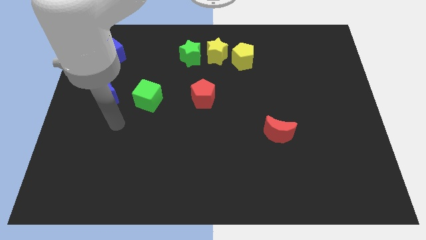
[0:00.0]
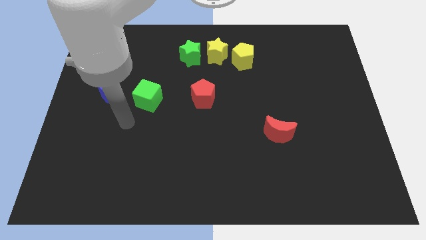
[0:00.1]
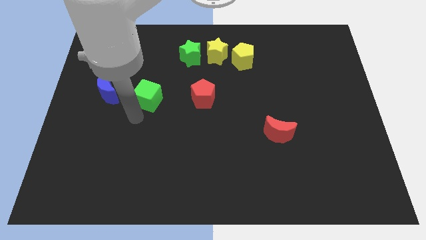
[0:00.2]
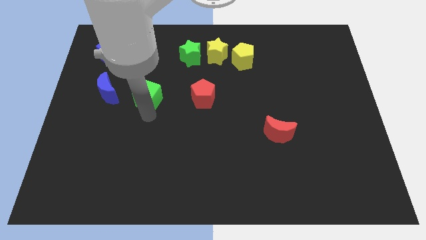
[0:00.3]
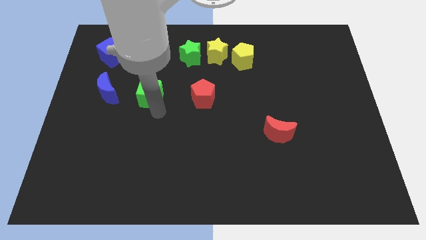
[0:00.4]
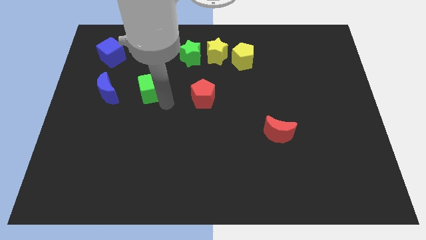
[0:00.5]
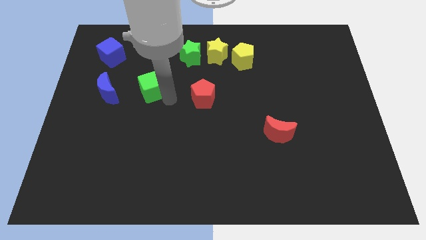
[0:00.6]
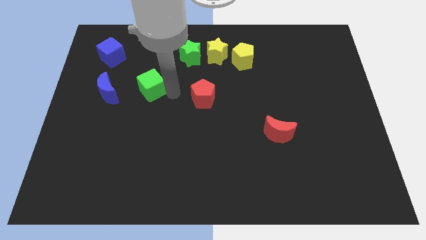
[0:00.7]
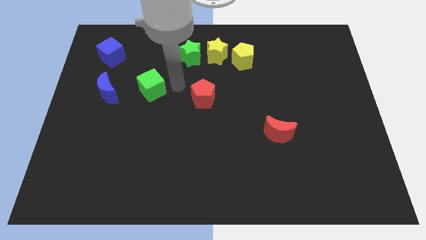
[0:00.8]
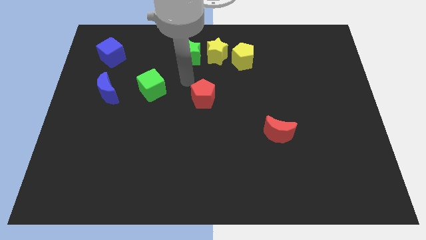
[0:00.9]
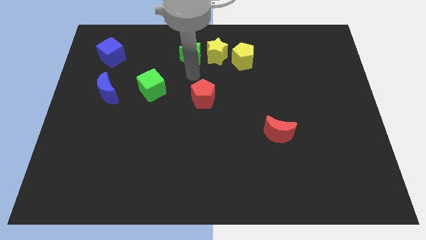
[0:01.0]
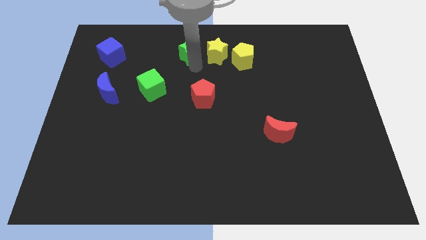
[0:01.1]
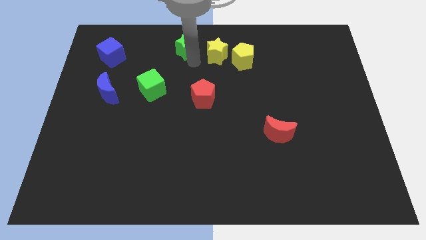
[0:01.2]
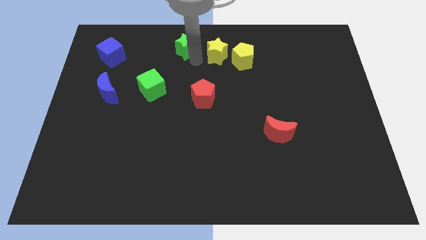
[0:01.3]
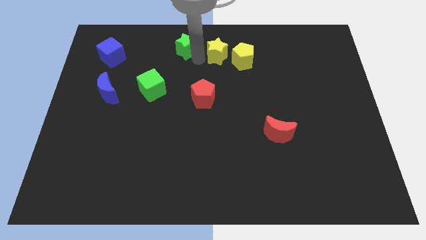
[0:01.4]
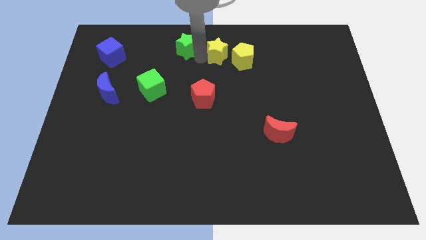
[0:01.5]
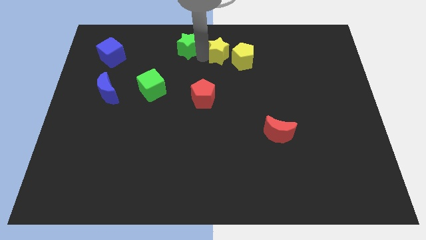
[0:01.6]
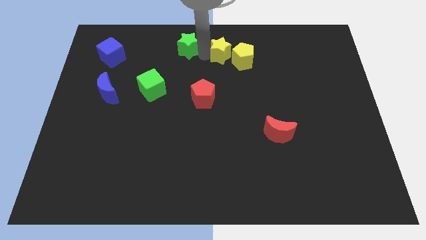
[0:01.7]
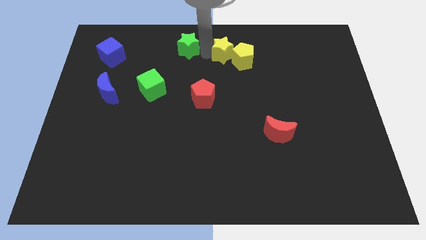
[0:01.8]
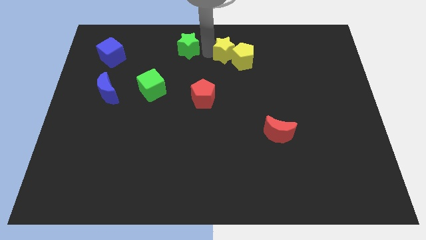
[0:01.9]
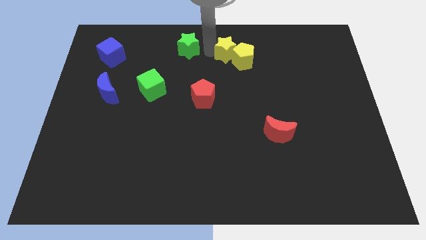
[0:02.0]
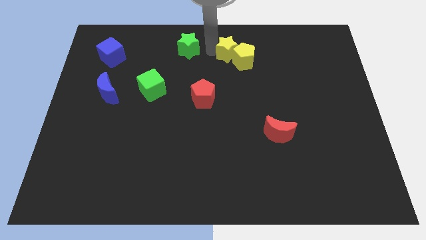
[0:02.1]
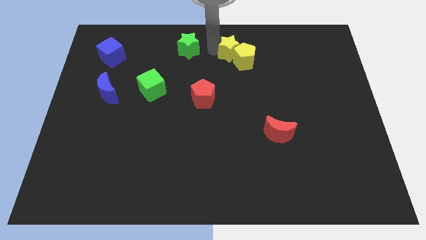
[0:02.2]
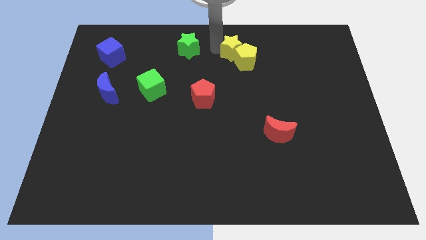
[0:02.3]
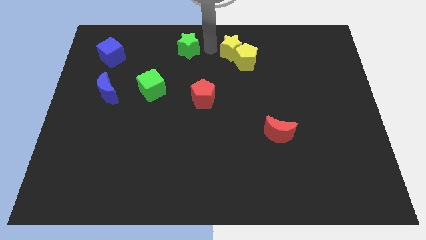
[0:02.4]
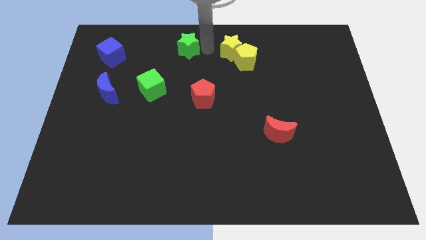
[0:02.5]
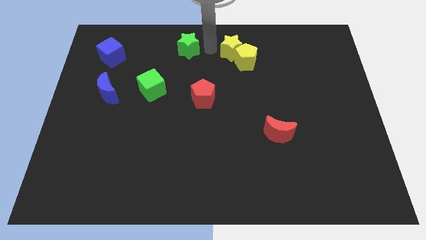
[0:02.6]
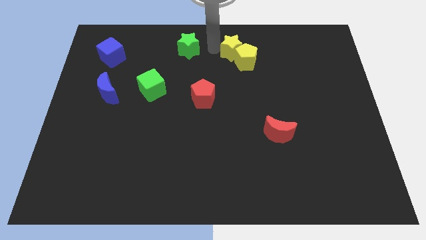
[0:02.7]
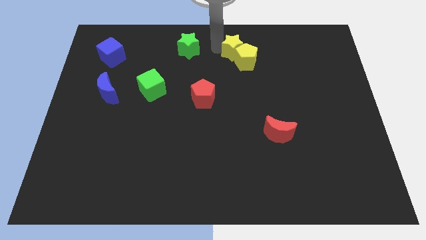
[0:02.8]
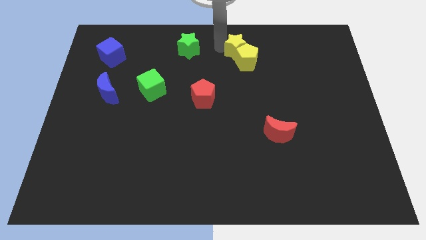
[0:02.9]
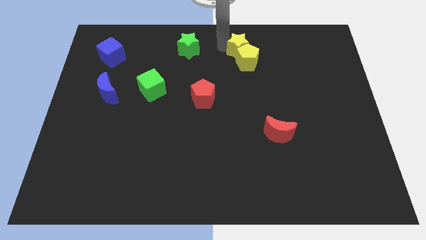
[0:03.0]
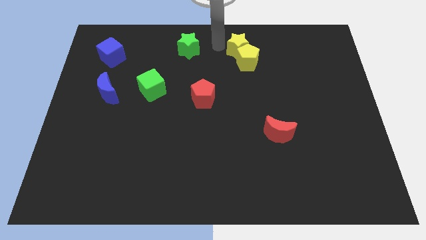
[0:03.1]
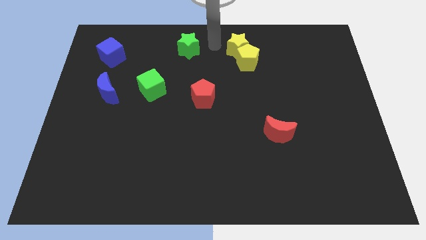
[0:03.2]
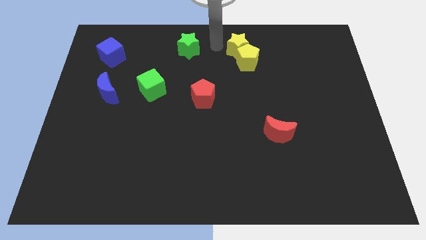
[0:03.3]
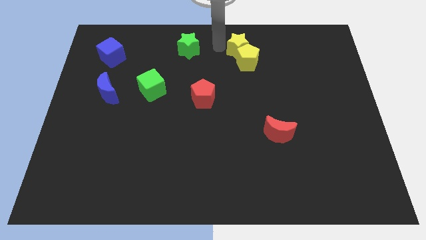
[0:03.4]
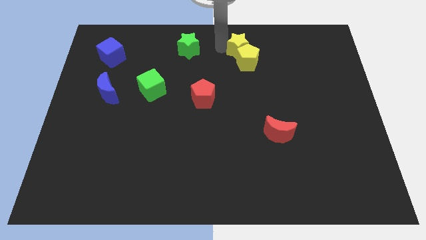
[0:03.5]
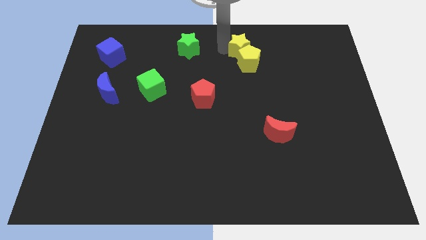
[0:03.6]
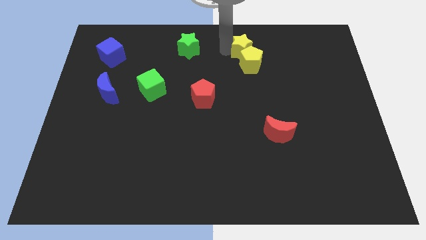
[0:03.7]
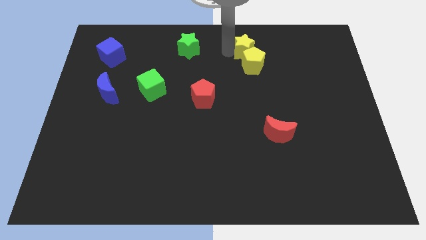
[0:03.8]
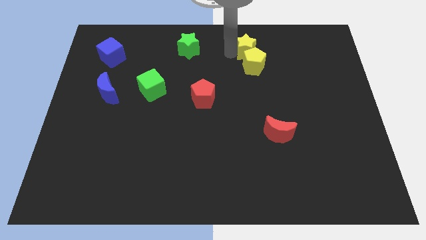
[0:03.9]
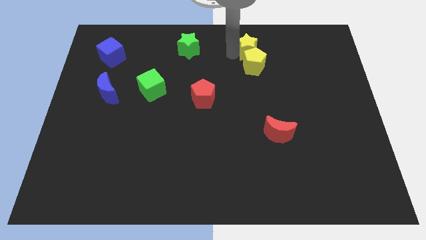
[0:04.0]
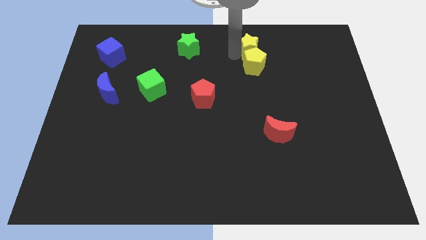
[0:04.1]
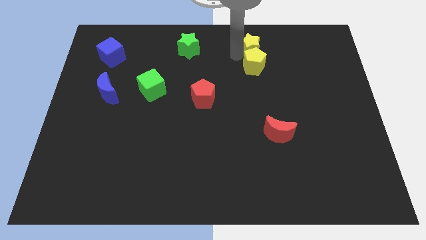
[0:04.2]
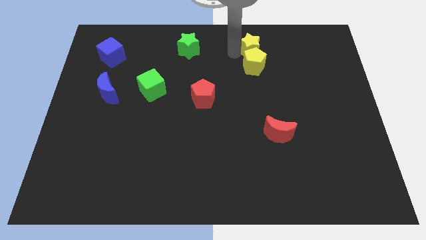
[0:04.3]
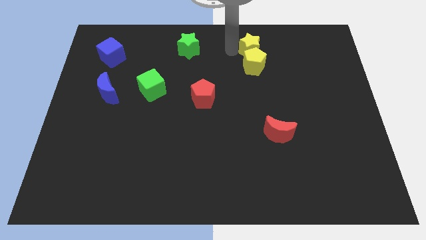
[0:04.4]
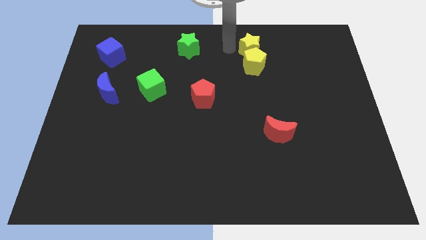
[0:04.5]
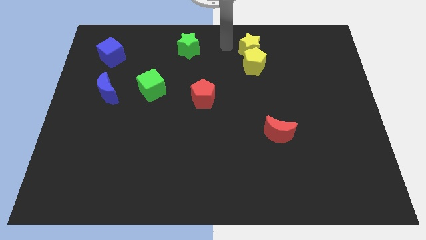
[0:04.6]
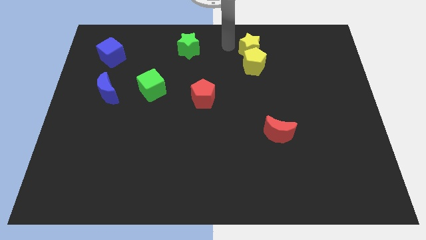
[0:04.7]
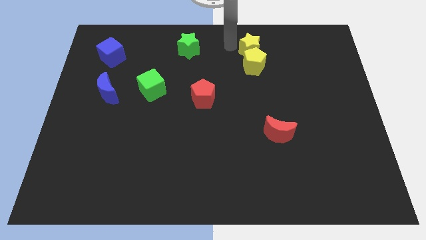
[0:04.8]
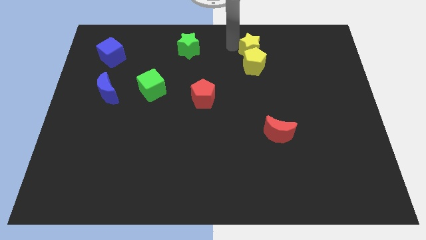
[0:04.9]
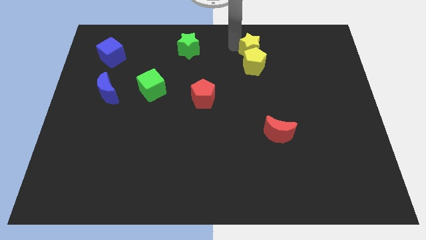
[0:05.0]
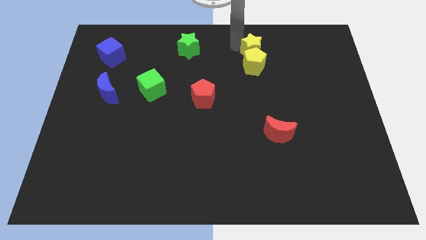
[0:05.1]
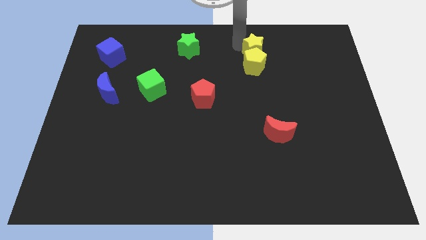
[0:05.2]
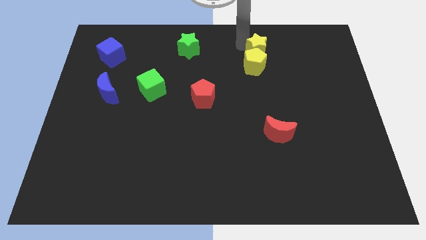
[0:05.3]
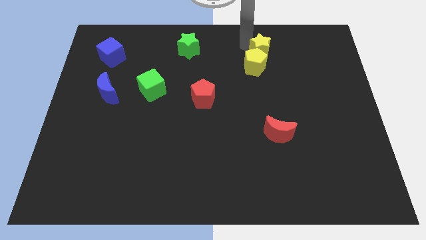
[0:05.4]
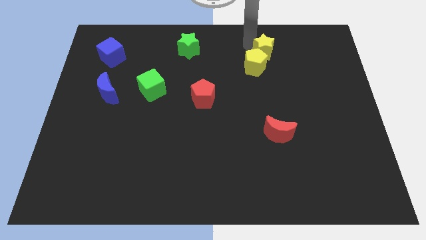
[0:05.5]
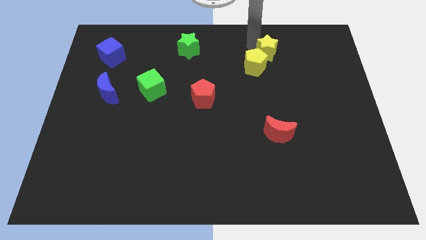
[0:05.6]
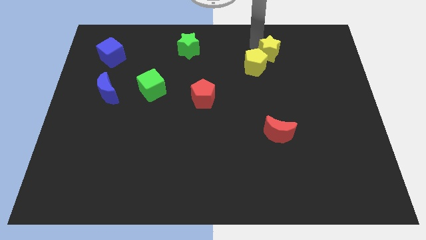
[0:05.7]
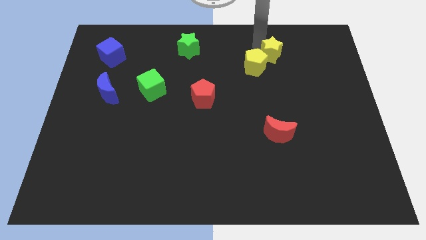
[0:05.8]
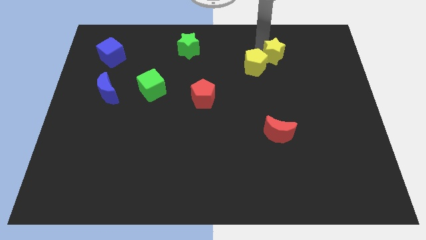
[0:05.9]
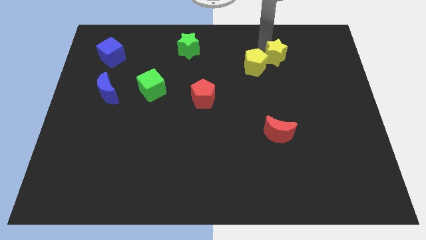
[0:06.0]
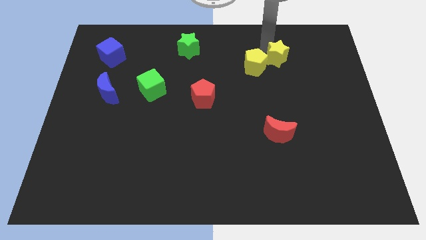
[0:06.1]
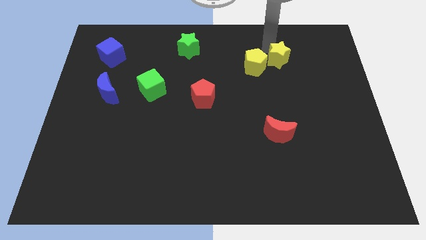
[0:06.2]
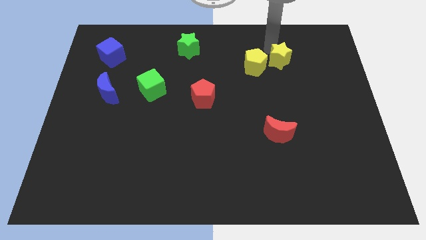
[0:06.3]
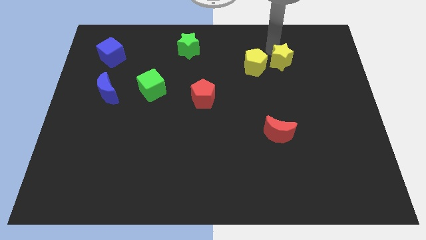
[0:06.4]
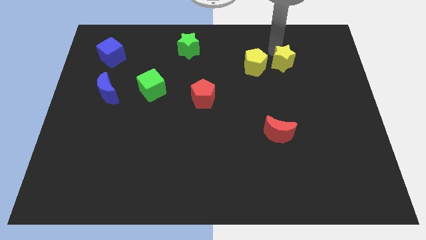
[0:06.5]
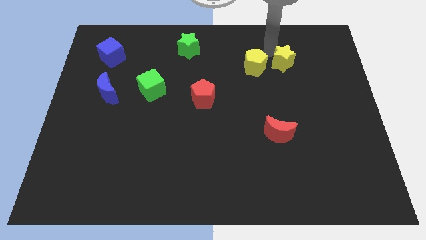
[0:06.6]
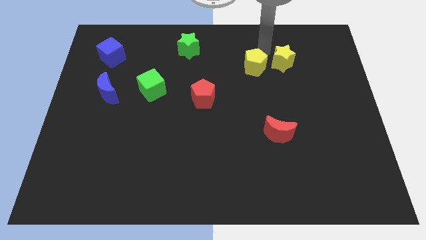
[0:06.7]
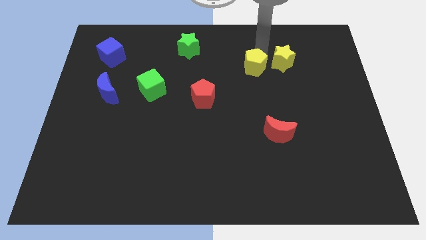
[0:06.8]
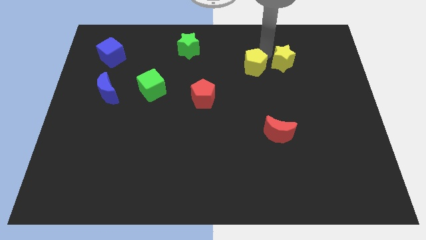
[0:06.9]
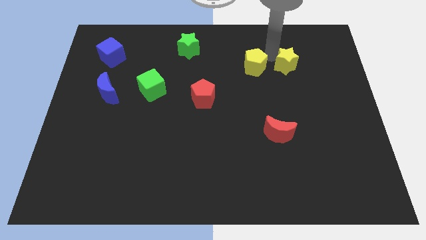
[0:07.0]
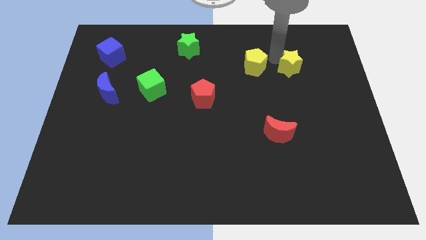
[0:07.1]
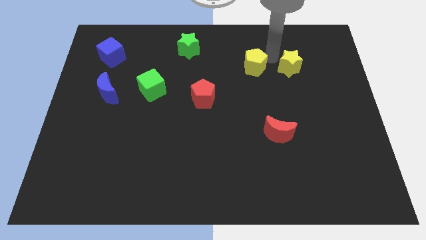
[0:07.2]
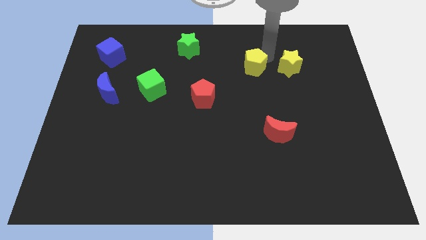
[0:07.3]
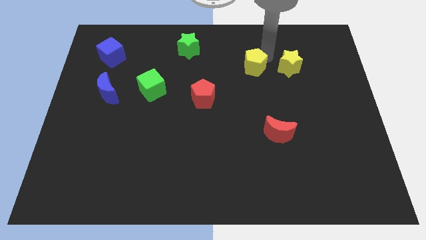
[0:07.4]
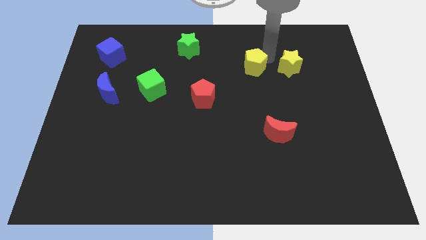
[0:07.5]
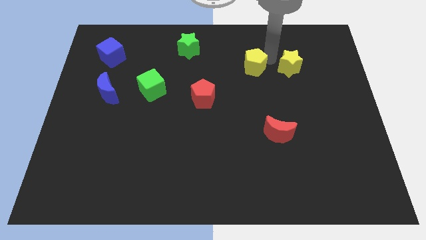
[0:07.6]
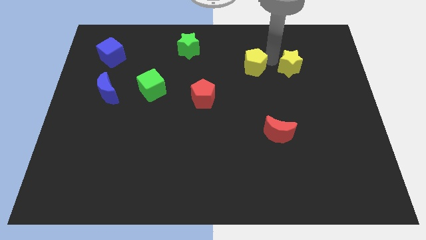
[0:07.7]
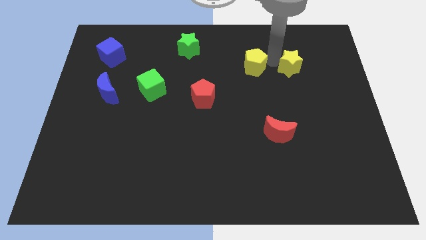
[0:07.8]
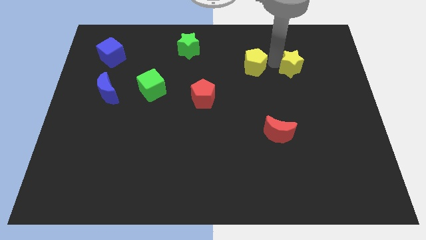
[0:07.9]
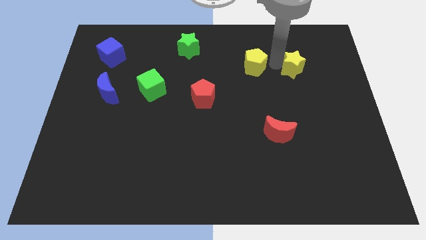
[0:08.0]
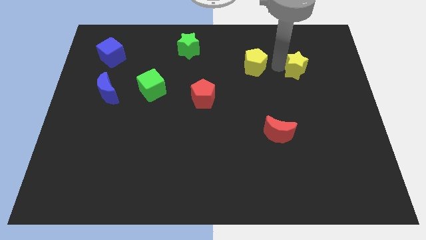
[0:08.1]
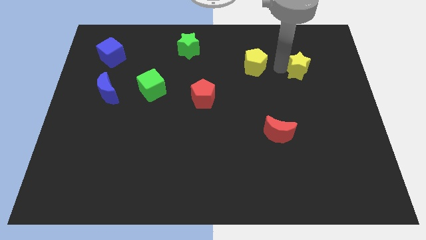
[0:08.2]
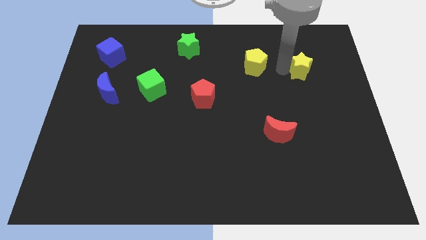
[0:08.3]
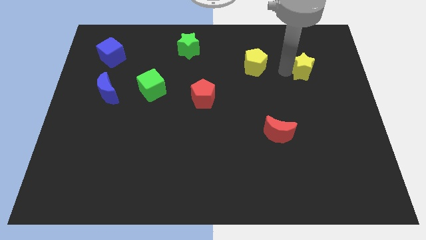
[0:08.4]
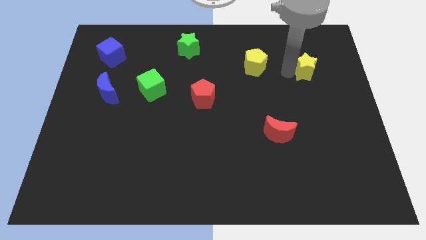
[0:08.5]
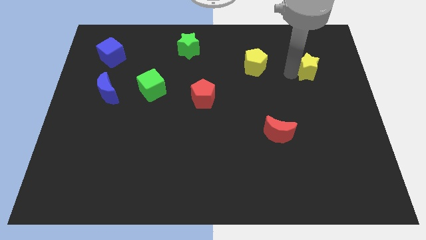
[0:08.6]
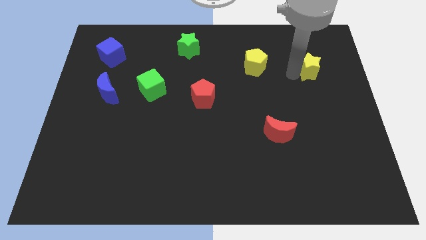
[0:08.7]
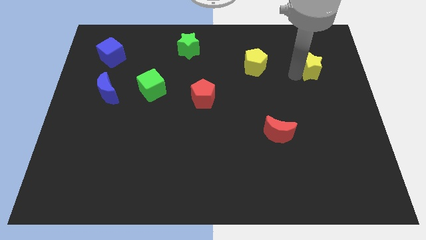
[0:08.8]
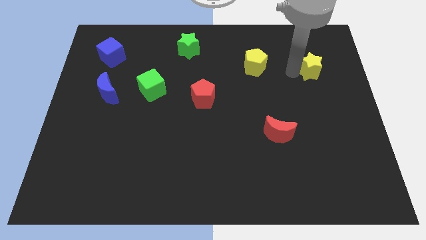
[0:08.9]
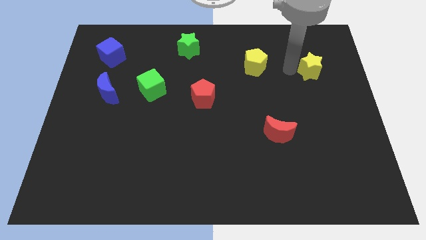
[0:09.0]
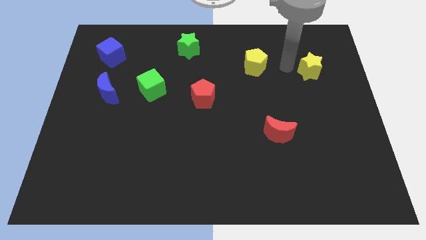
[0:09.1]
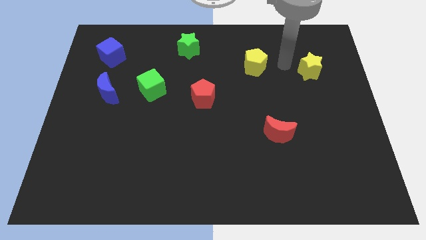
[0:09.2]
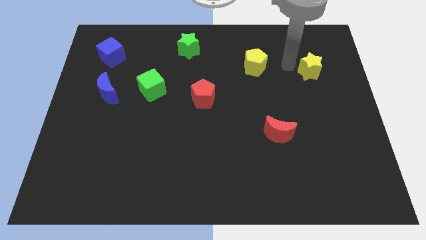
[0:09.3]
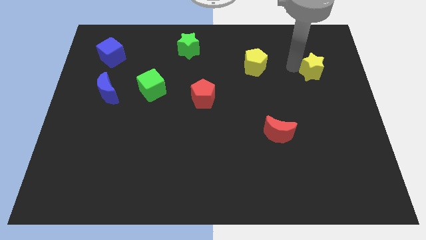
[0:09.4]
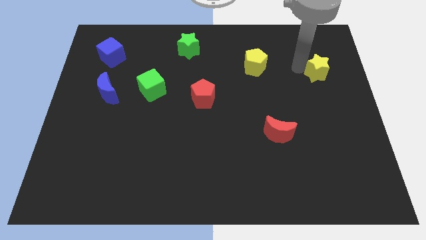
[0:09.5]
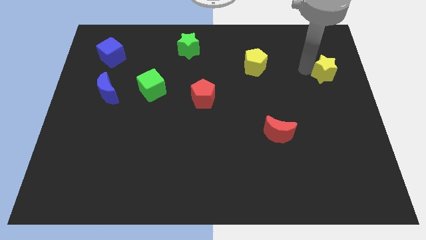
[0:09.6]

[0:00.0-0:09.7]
push the yellow star to the right side of the board
